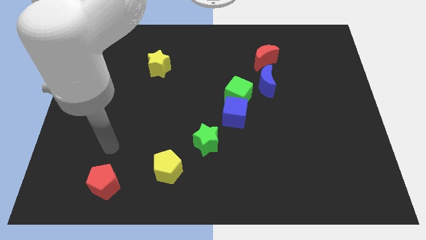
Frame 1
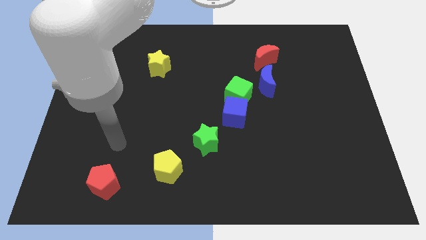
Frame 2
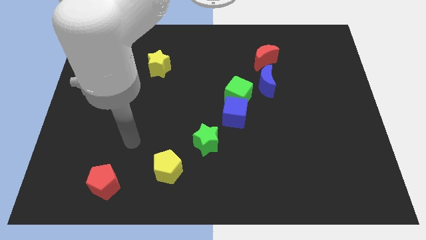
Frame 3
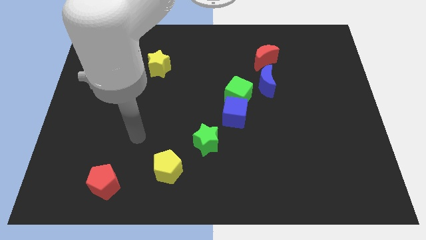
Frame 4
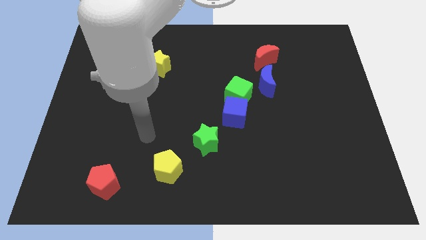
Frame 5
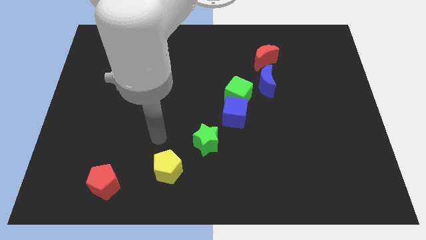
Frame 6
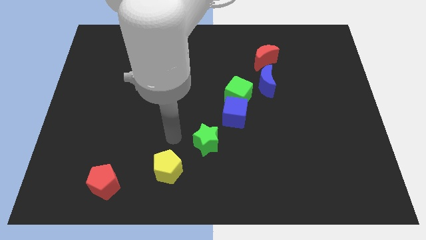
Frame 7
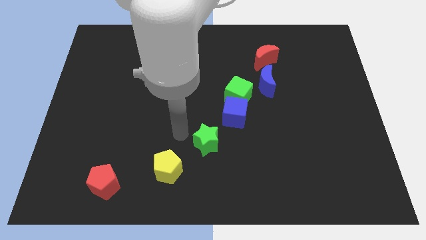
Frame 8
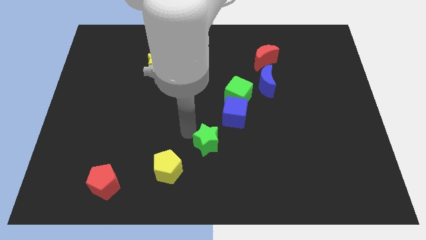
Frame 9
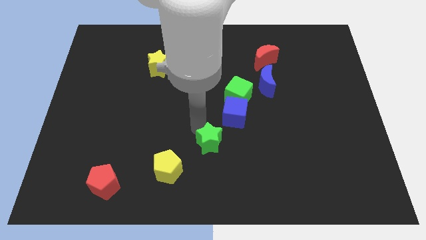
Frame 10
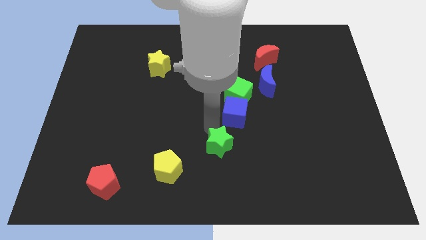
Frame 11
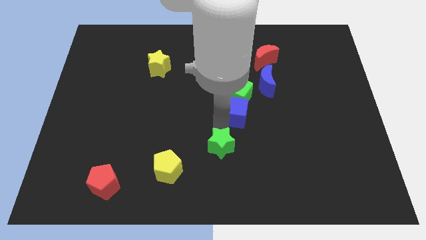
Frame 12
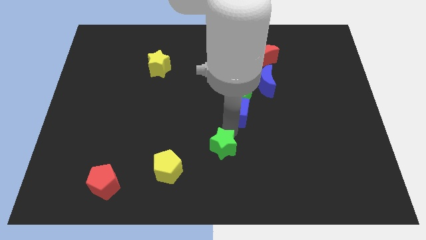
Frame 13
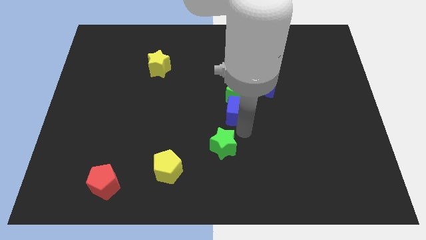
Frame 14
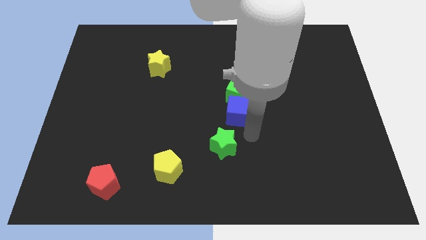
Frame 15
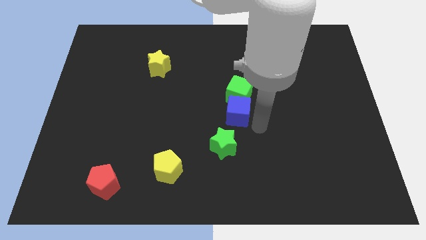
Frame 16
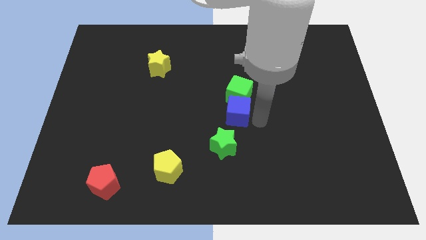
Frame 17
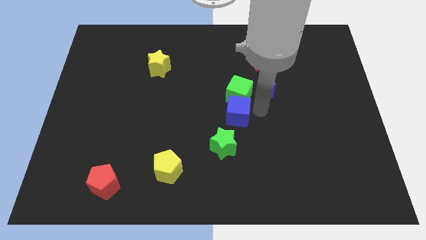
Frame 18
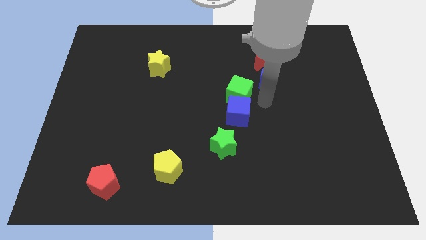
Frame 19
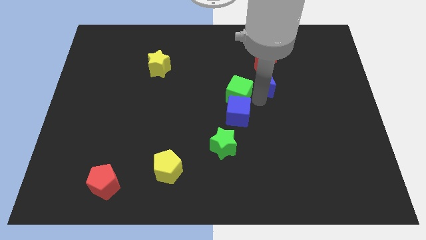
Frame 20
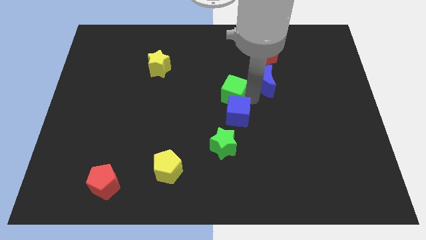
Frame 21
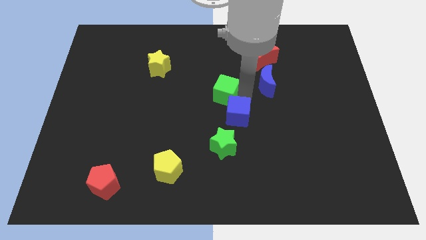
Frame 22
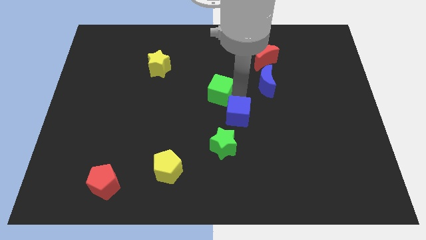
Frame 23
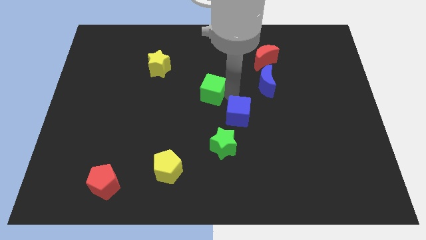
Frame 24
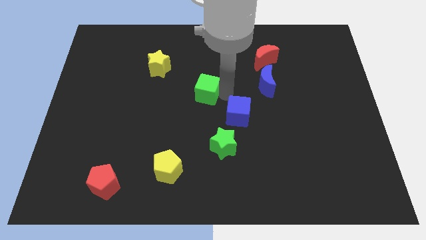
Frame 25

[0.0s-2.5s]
move the green cube away from the blue cube and blue moon

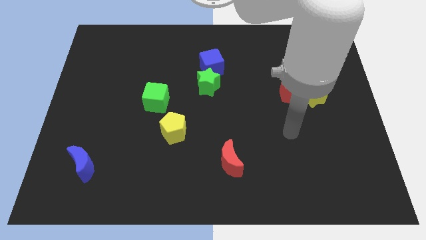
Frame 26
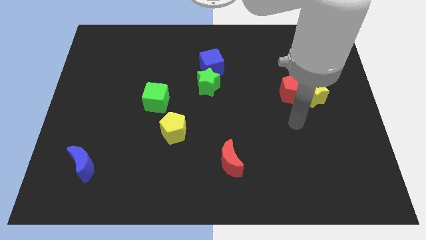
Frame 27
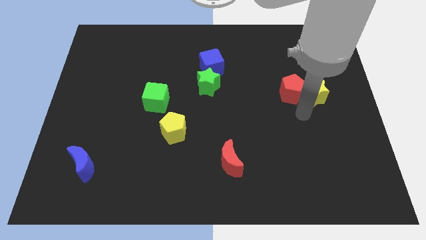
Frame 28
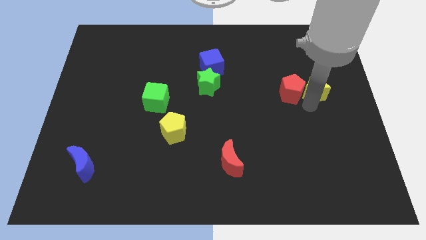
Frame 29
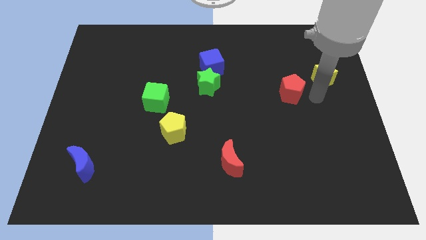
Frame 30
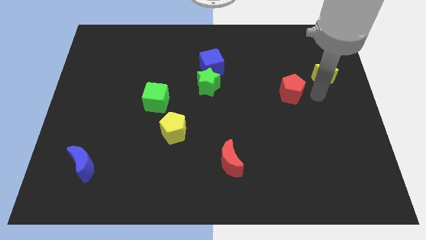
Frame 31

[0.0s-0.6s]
move the red pentagon away from the yellow star

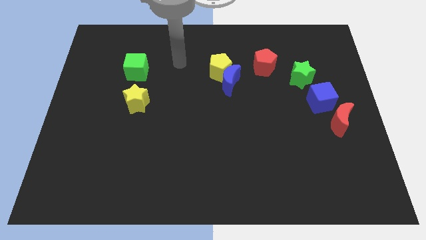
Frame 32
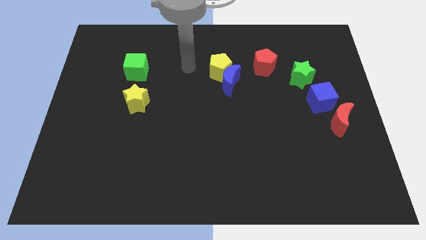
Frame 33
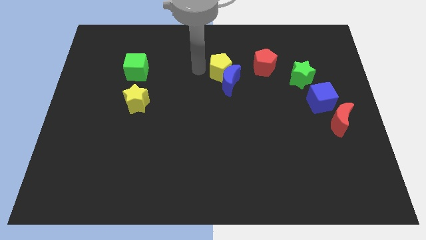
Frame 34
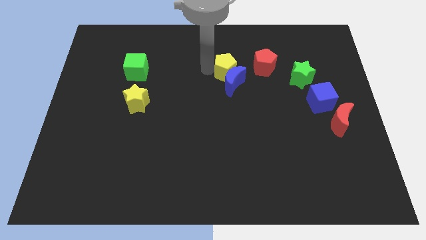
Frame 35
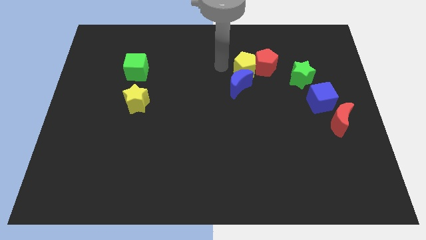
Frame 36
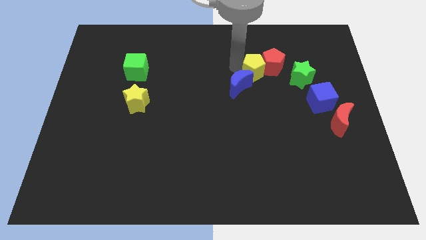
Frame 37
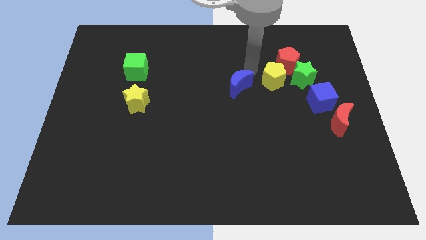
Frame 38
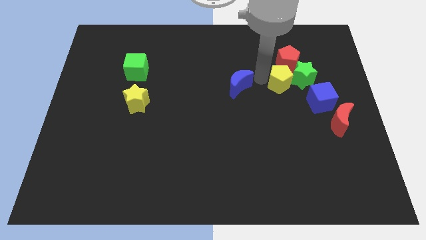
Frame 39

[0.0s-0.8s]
pull the blue moon apart from the yellow pentagon

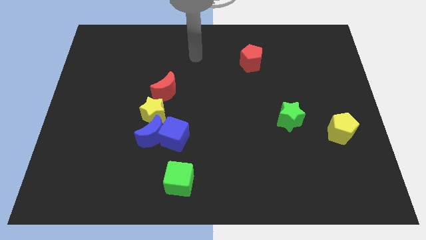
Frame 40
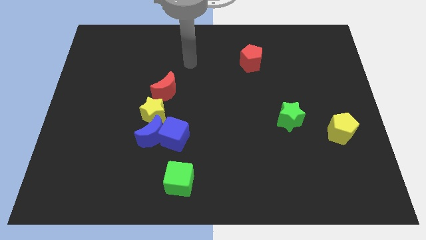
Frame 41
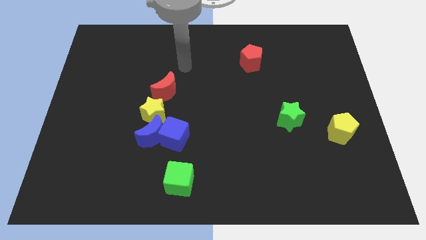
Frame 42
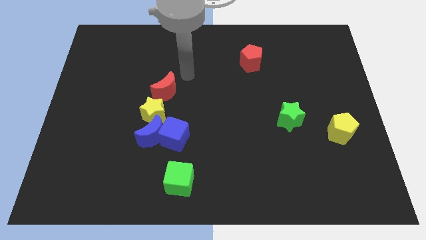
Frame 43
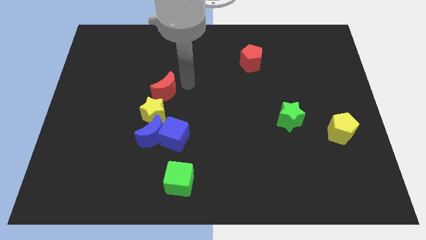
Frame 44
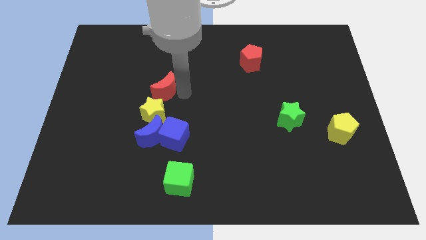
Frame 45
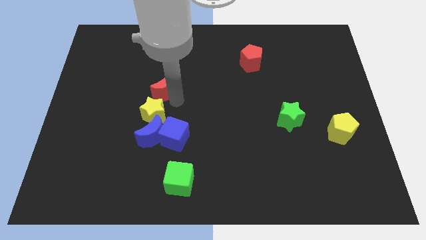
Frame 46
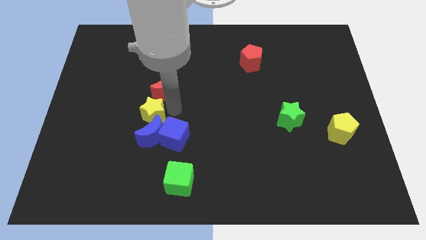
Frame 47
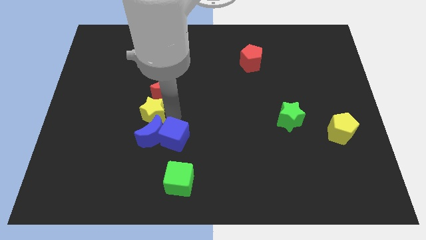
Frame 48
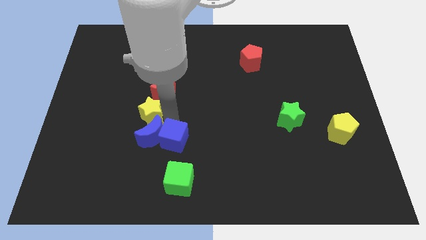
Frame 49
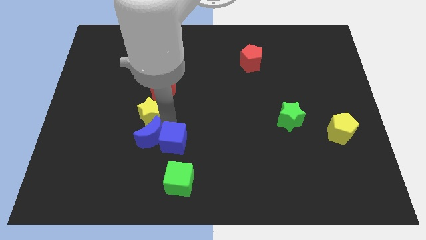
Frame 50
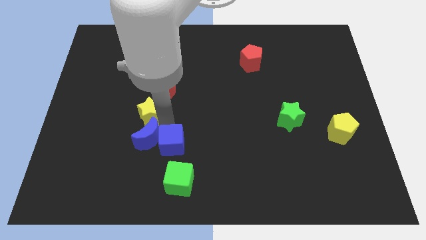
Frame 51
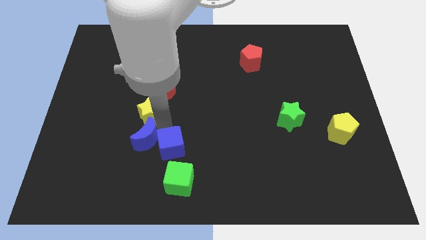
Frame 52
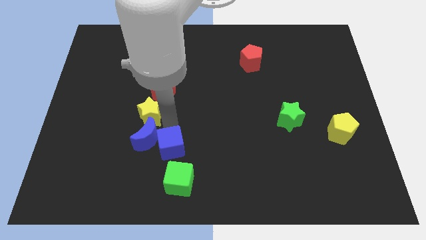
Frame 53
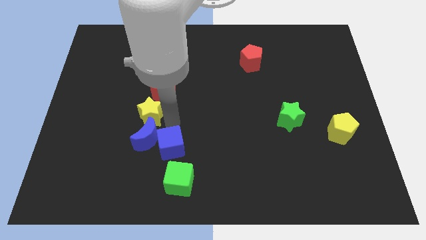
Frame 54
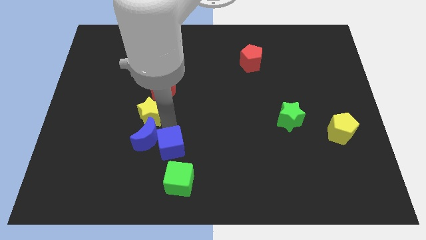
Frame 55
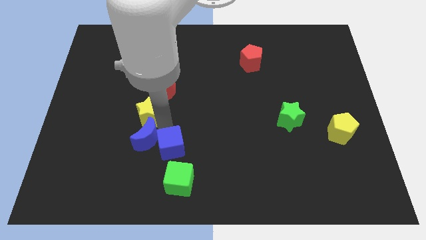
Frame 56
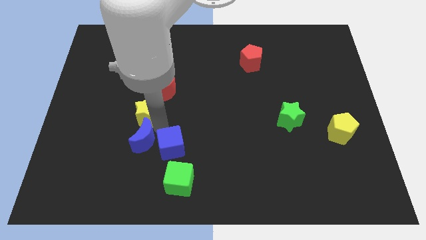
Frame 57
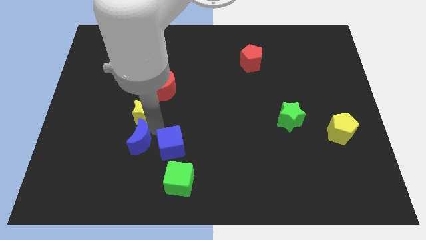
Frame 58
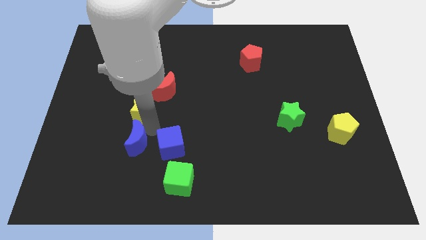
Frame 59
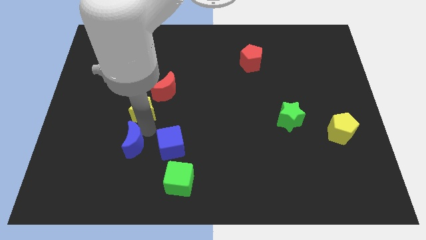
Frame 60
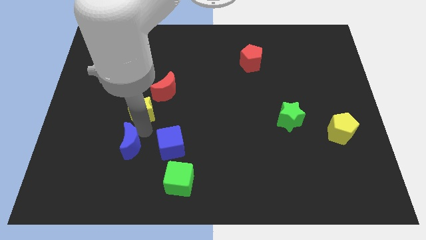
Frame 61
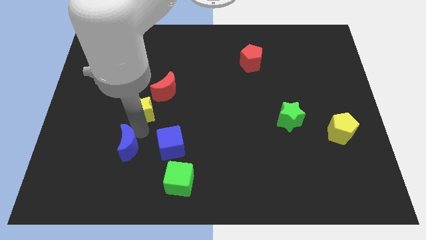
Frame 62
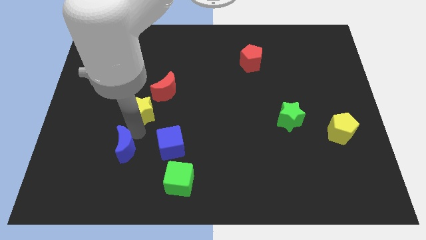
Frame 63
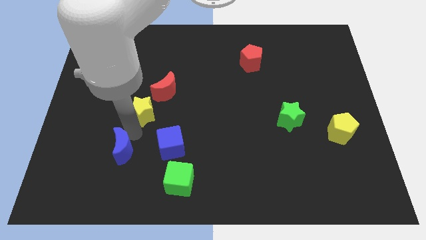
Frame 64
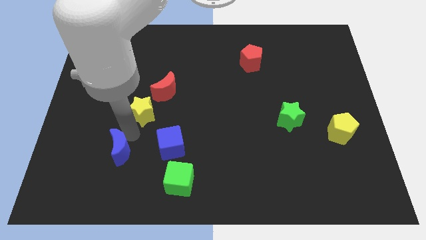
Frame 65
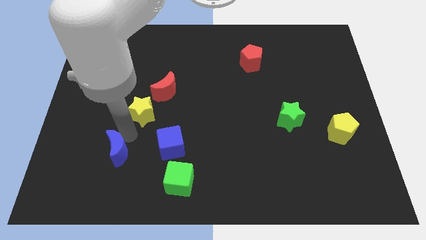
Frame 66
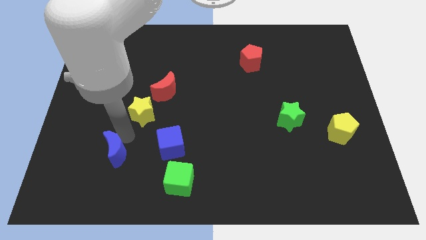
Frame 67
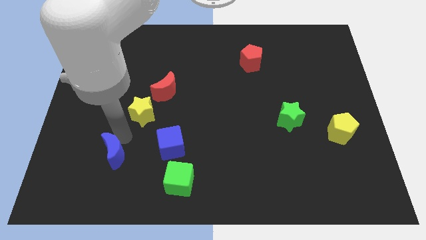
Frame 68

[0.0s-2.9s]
pull the blue moon apart from the blue cube and yellow star

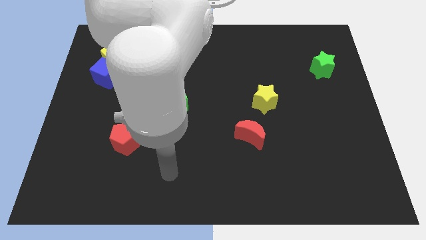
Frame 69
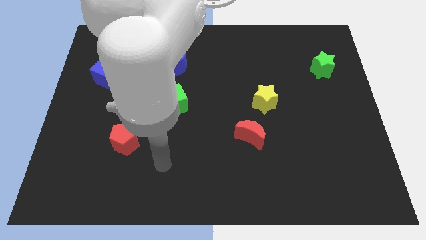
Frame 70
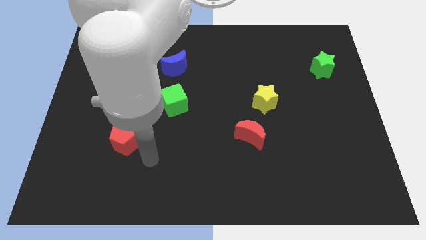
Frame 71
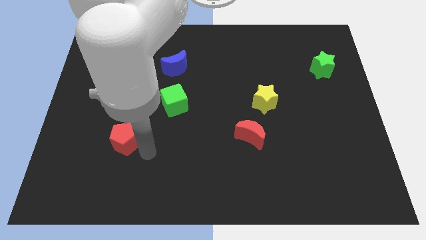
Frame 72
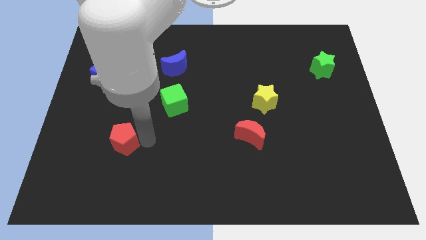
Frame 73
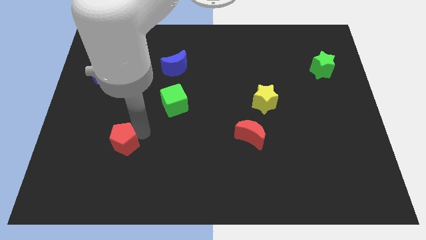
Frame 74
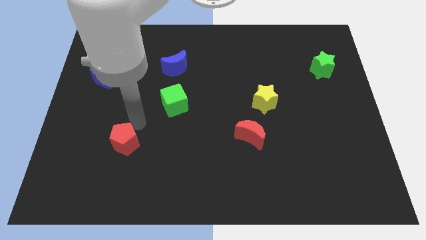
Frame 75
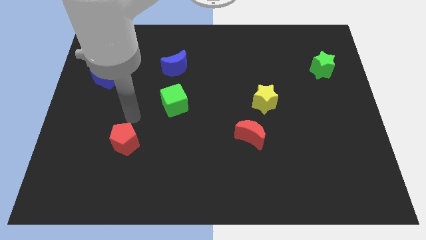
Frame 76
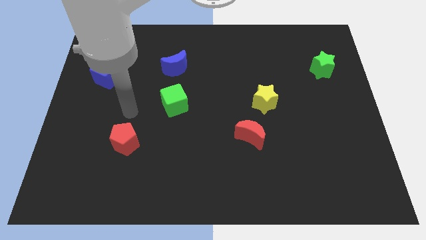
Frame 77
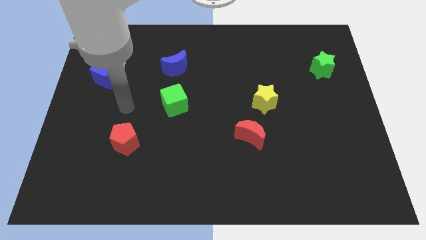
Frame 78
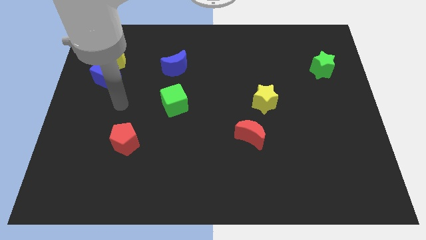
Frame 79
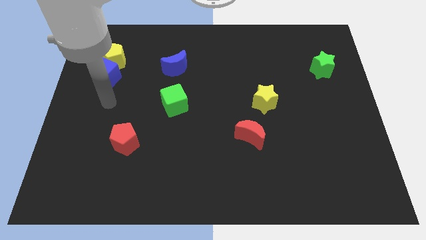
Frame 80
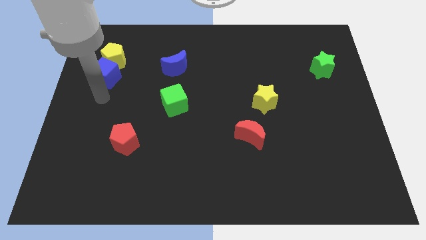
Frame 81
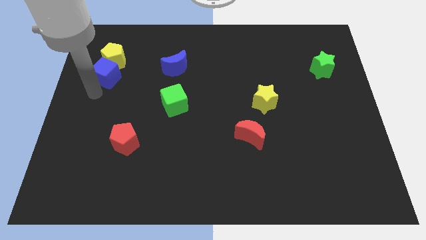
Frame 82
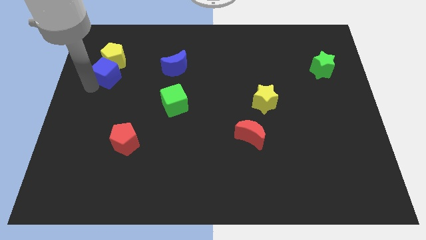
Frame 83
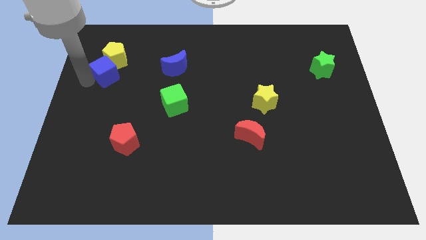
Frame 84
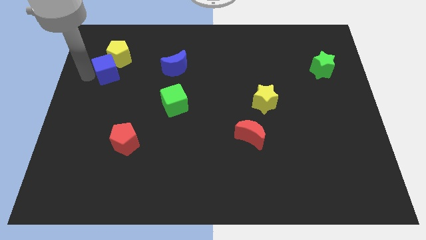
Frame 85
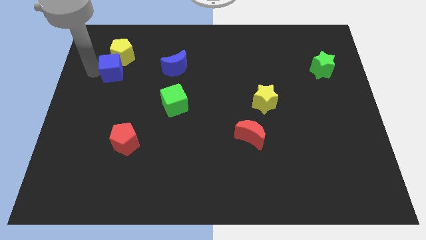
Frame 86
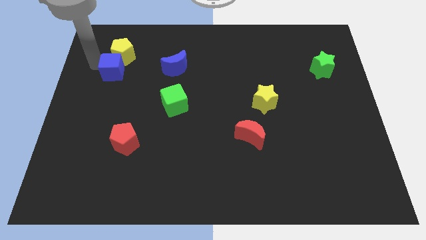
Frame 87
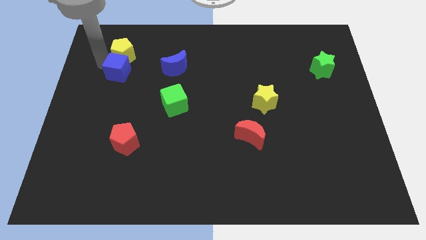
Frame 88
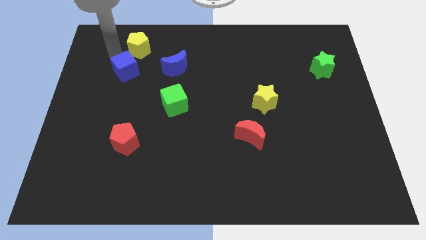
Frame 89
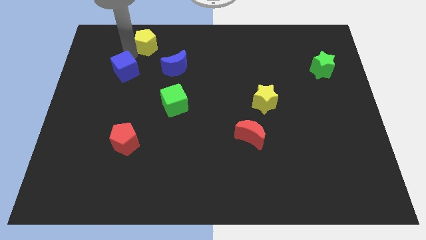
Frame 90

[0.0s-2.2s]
pull the blue cube apart from the yellow pentagon

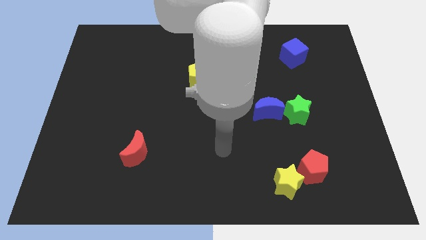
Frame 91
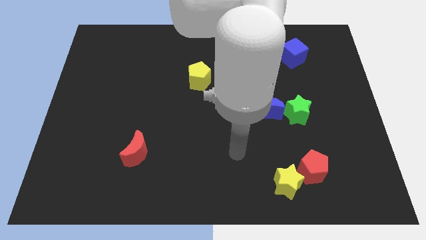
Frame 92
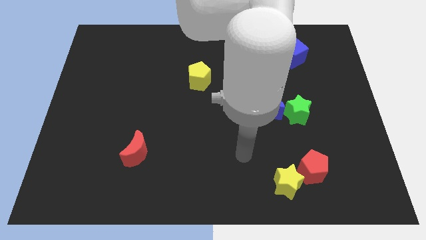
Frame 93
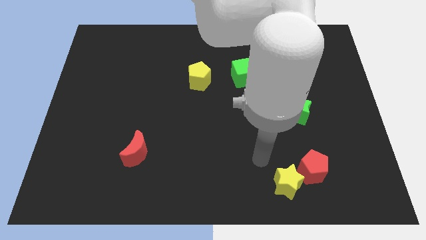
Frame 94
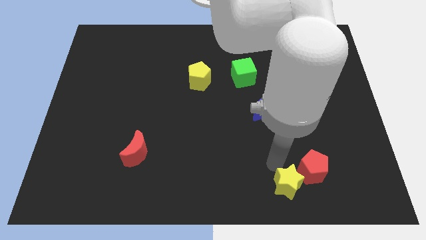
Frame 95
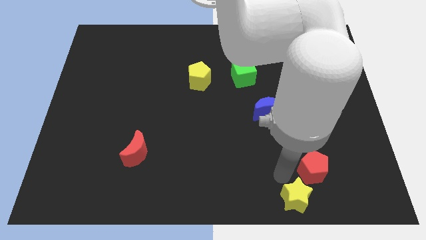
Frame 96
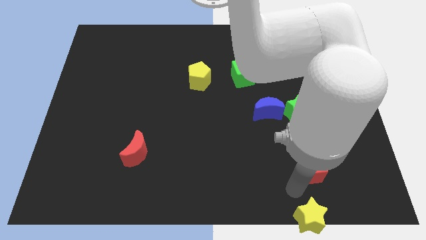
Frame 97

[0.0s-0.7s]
pull the red pentagon apart from the yellow star
